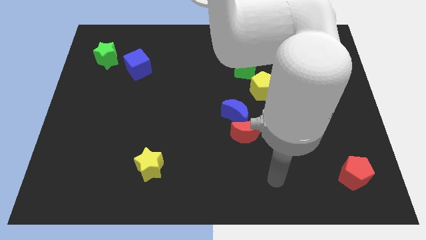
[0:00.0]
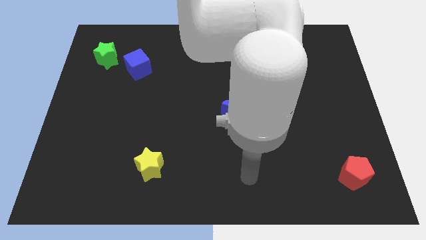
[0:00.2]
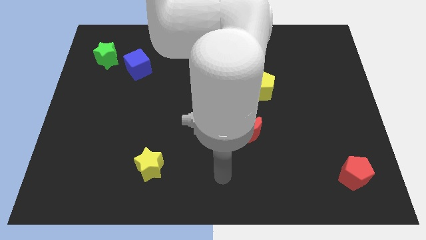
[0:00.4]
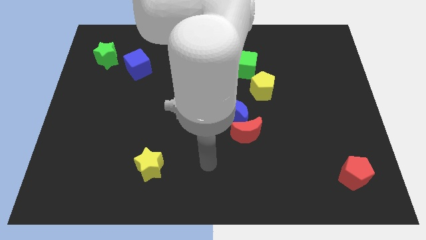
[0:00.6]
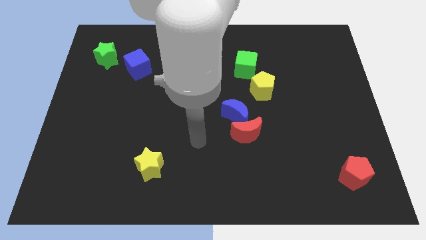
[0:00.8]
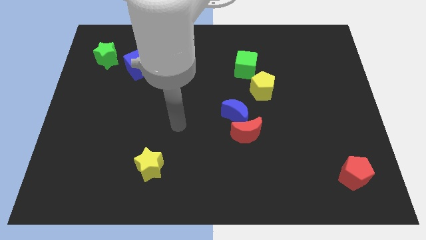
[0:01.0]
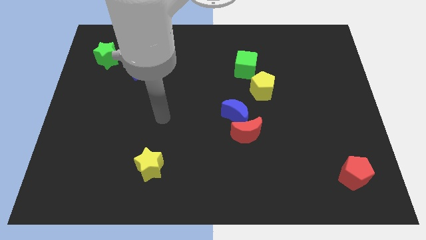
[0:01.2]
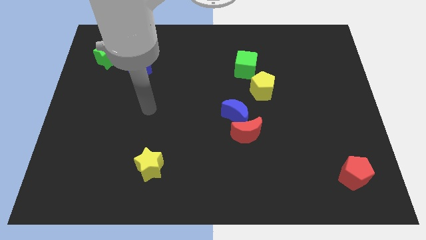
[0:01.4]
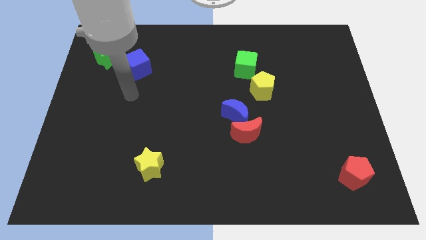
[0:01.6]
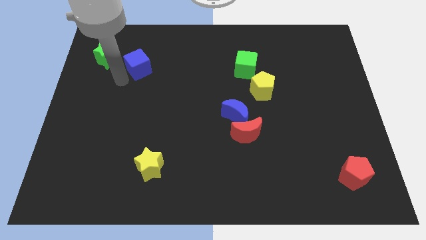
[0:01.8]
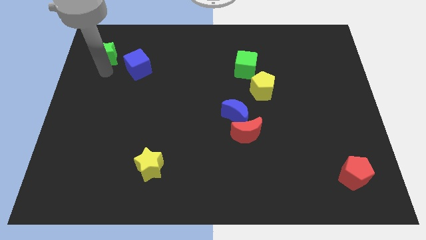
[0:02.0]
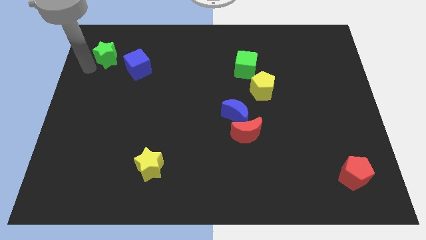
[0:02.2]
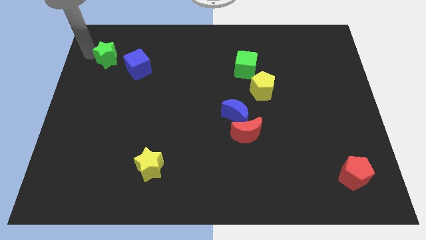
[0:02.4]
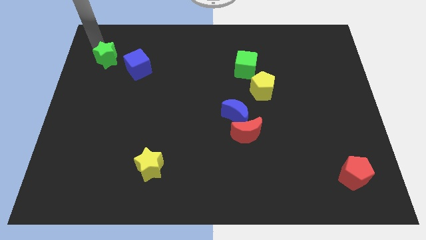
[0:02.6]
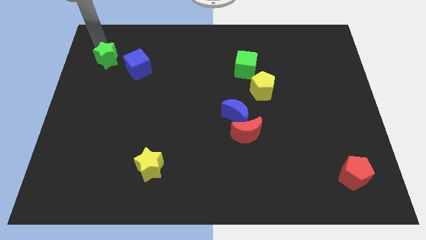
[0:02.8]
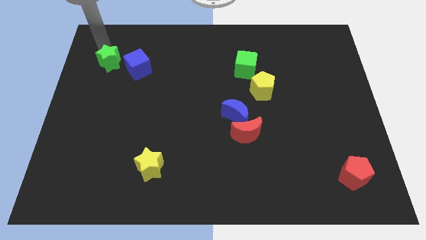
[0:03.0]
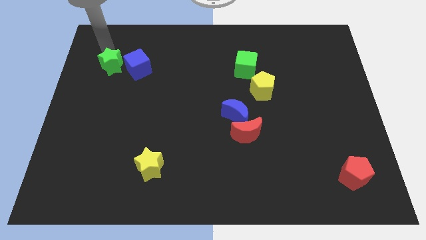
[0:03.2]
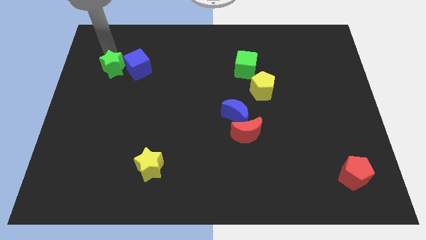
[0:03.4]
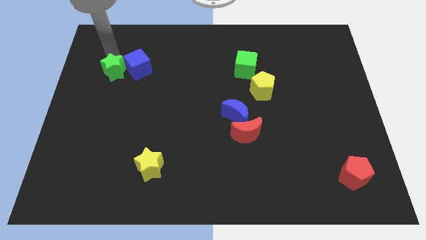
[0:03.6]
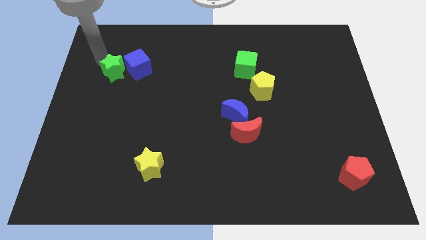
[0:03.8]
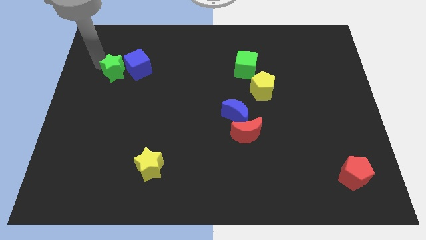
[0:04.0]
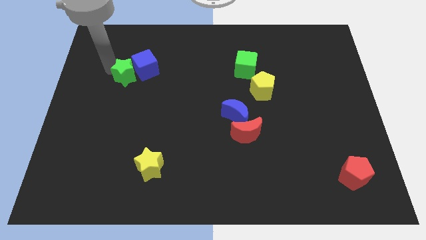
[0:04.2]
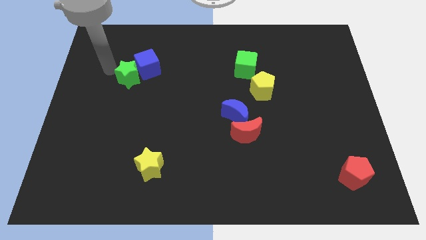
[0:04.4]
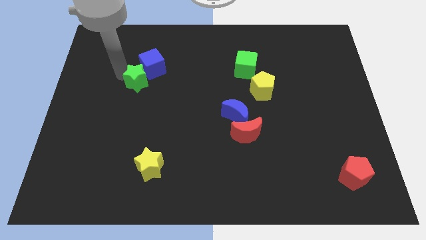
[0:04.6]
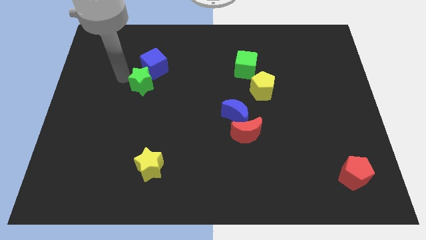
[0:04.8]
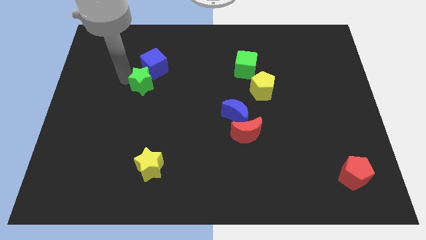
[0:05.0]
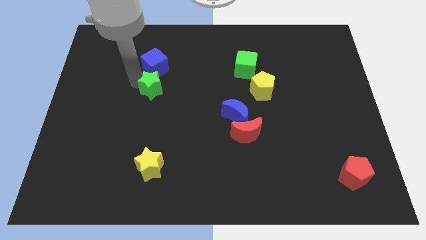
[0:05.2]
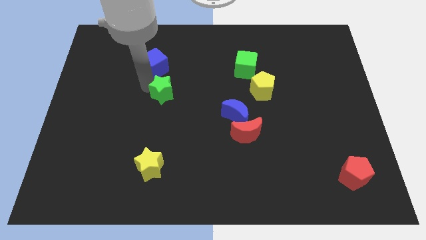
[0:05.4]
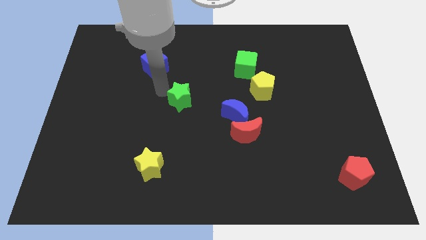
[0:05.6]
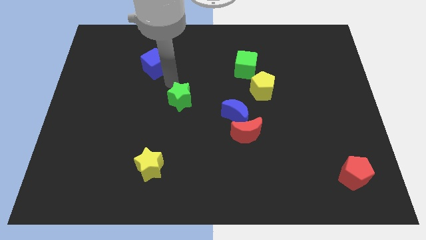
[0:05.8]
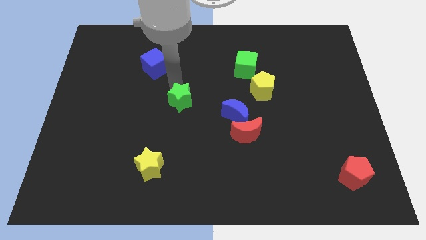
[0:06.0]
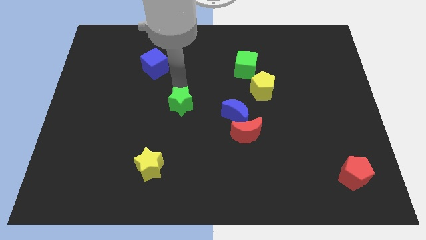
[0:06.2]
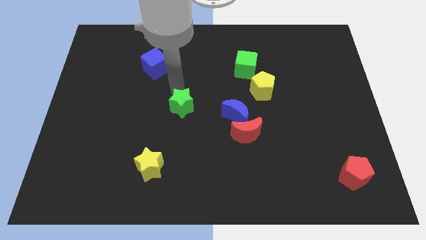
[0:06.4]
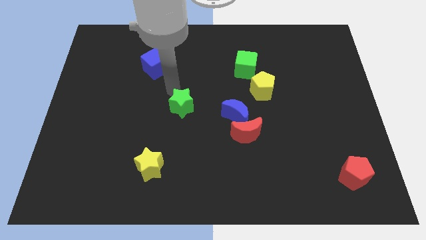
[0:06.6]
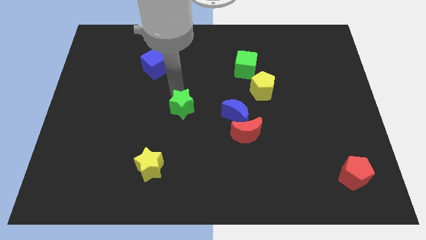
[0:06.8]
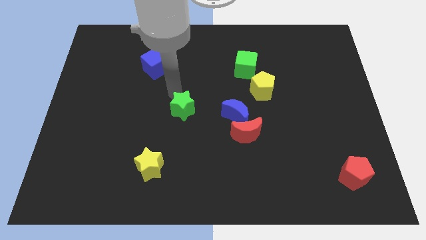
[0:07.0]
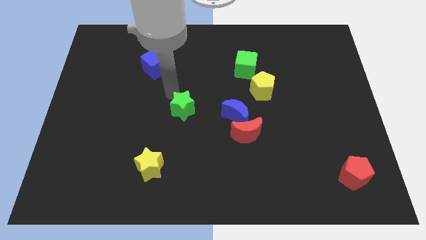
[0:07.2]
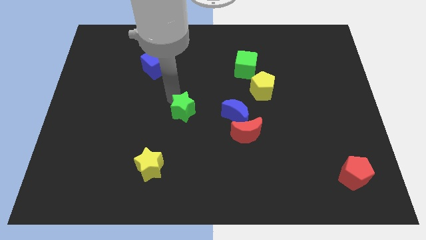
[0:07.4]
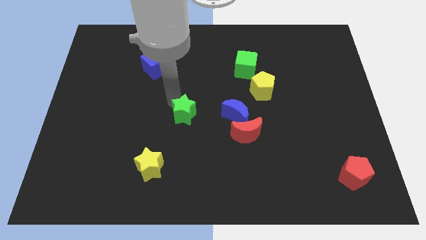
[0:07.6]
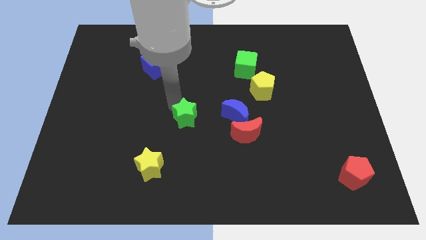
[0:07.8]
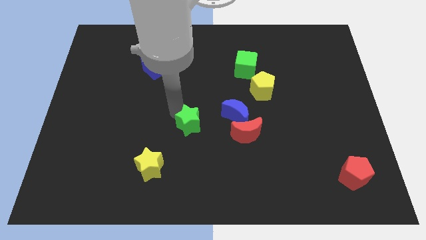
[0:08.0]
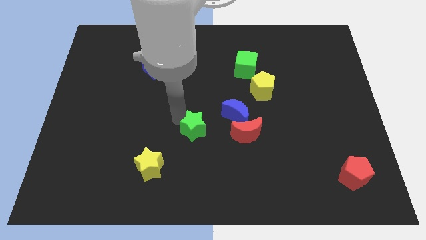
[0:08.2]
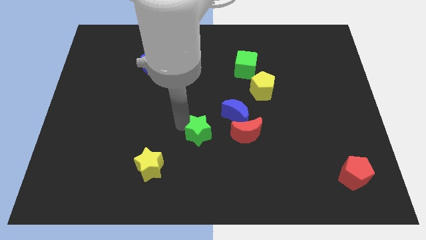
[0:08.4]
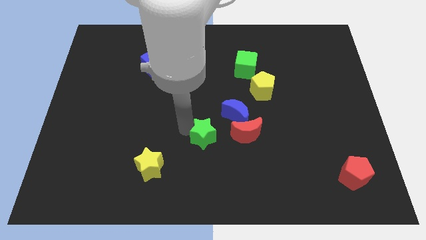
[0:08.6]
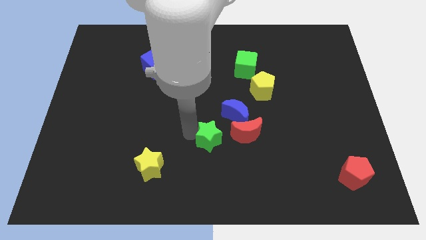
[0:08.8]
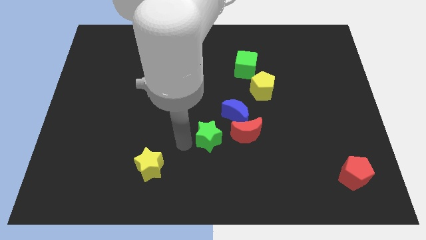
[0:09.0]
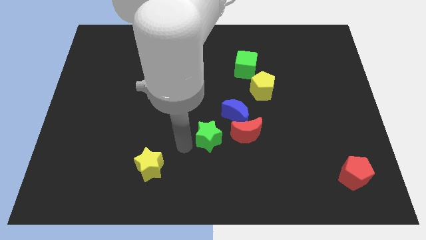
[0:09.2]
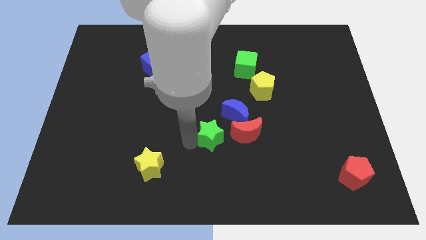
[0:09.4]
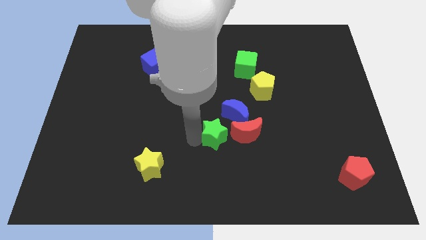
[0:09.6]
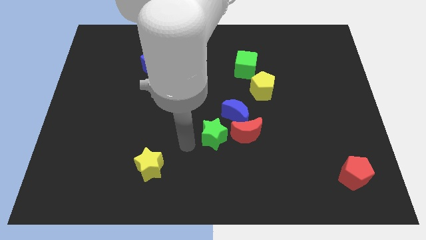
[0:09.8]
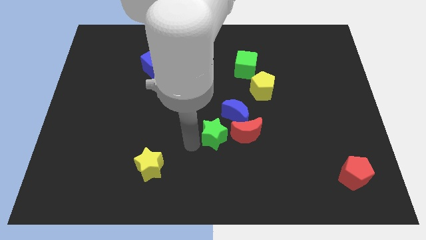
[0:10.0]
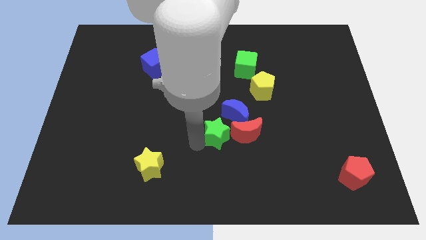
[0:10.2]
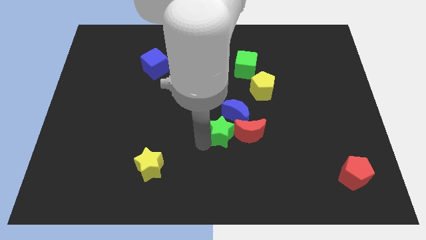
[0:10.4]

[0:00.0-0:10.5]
put the green star towards the red moon

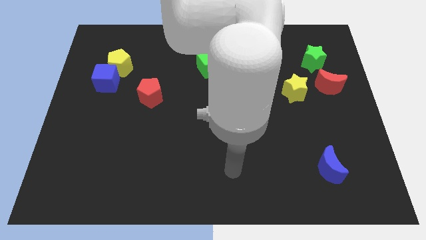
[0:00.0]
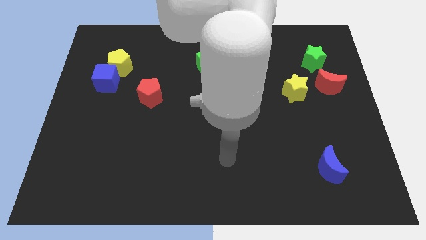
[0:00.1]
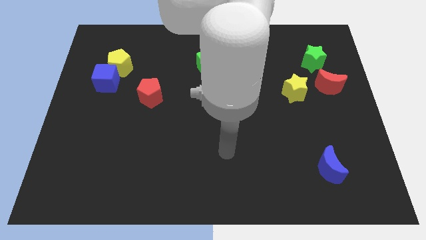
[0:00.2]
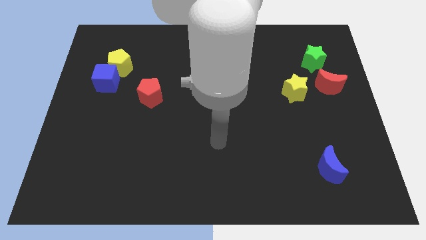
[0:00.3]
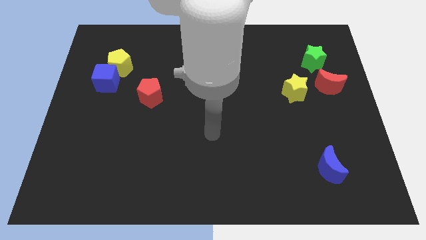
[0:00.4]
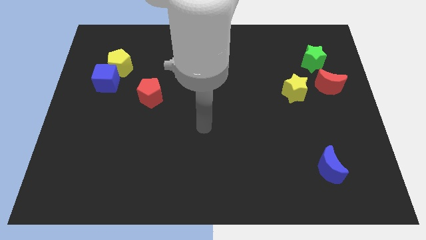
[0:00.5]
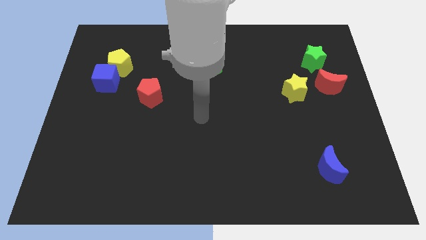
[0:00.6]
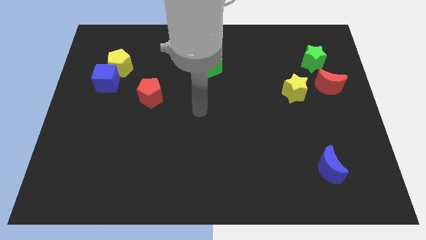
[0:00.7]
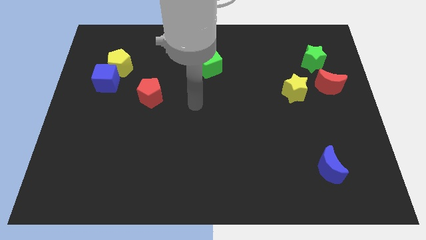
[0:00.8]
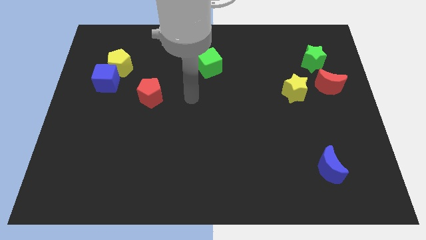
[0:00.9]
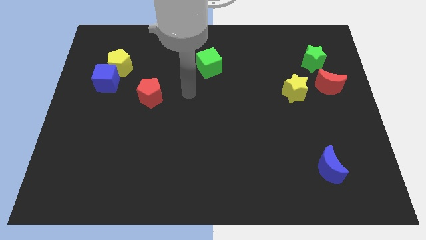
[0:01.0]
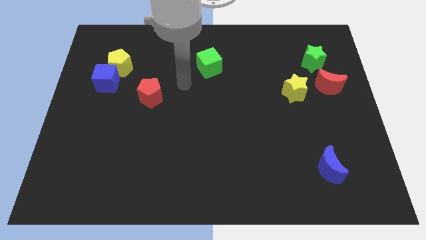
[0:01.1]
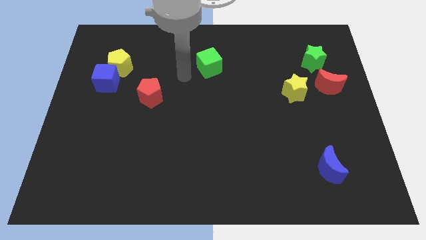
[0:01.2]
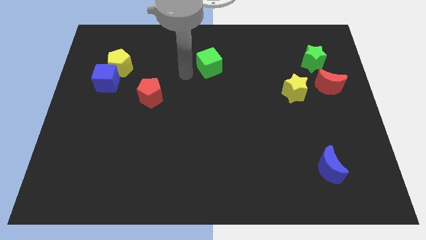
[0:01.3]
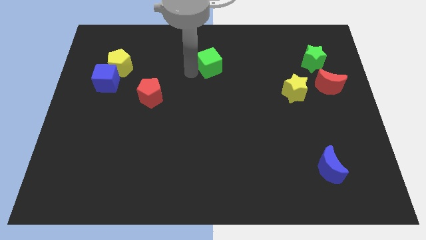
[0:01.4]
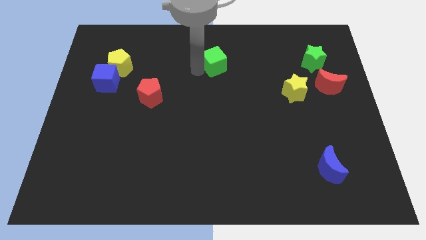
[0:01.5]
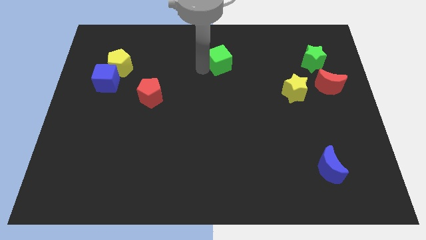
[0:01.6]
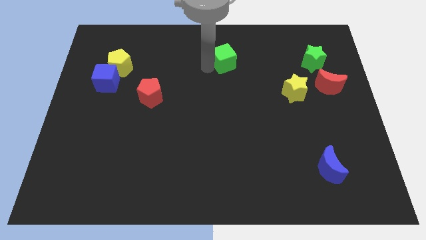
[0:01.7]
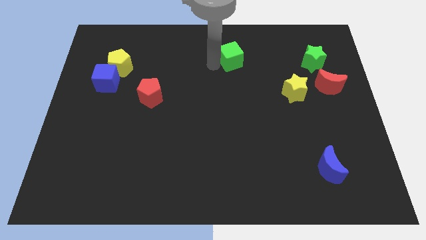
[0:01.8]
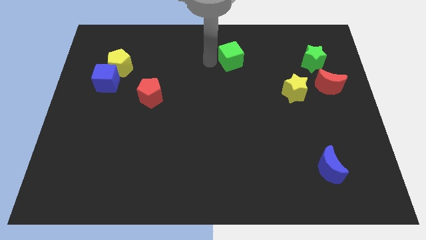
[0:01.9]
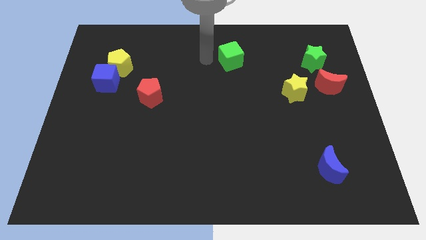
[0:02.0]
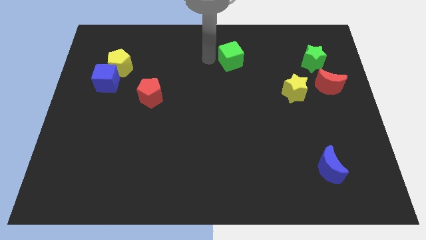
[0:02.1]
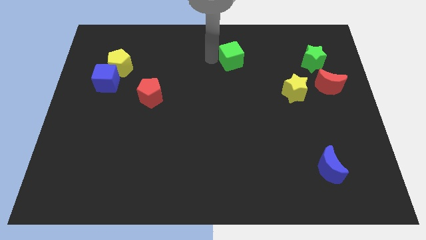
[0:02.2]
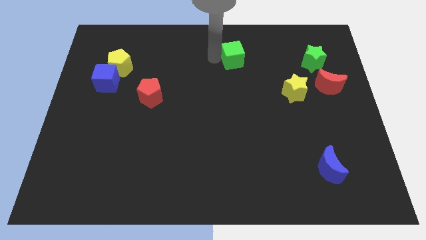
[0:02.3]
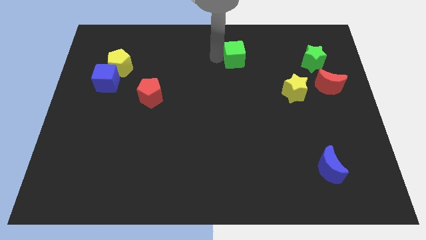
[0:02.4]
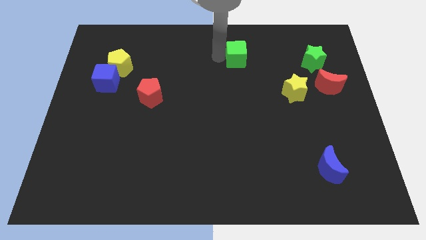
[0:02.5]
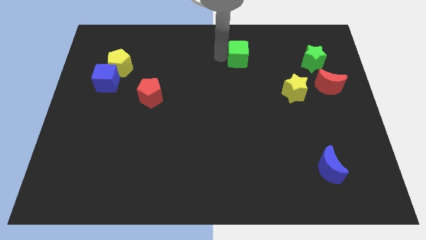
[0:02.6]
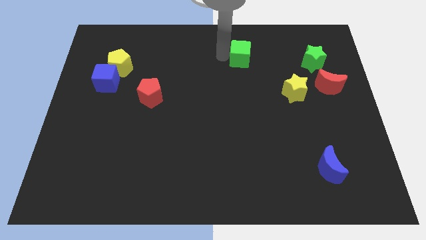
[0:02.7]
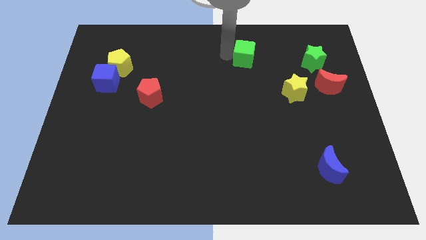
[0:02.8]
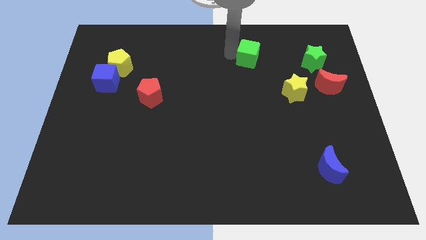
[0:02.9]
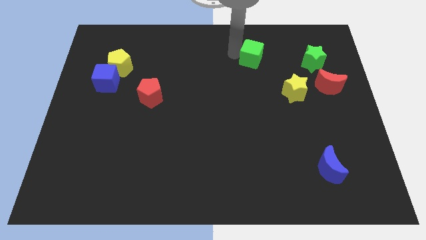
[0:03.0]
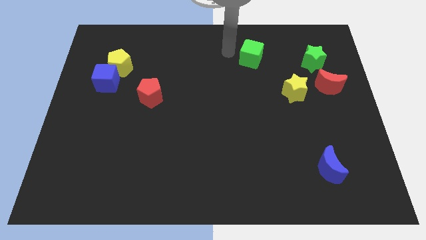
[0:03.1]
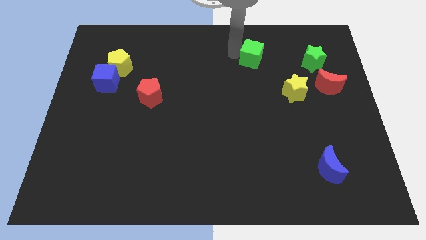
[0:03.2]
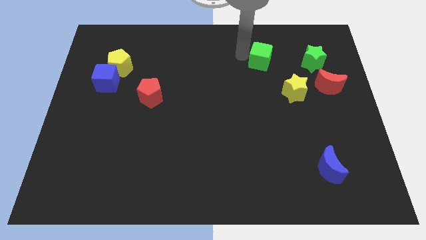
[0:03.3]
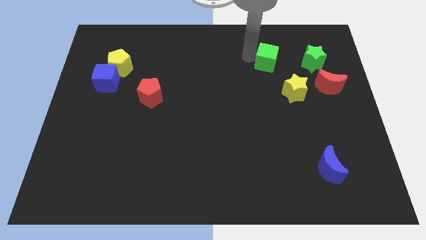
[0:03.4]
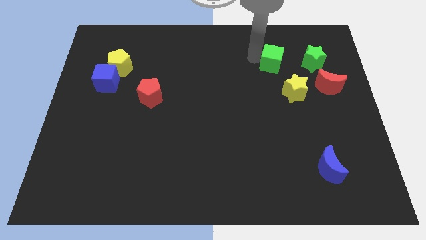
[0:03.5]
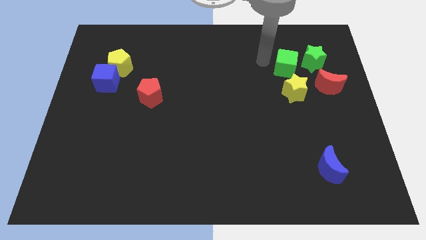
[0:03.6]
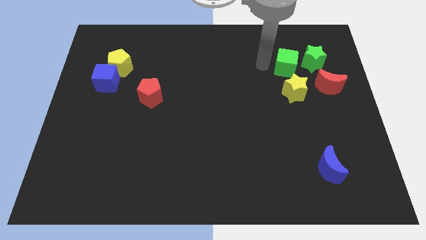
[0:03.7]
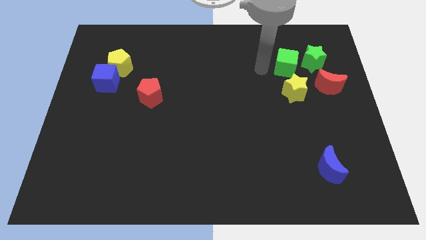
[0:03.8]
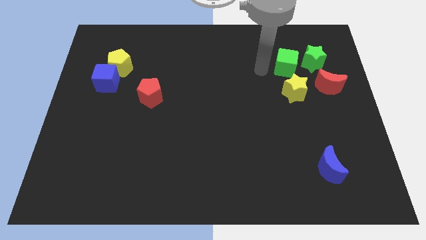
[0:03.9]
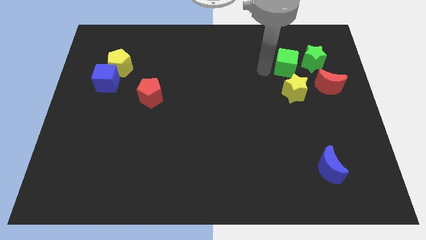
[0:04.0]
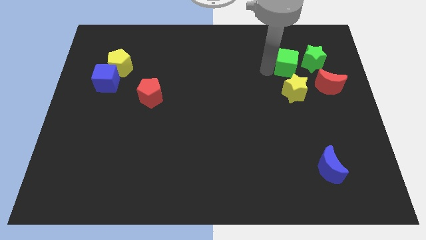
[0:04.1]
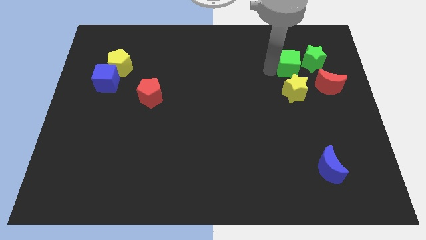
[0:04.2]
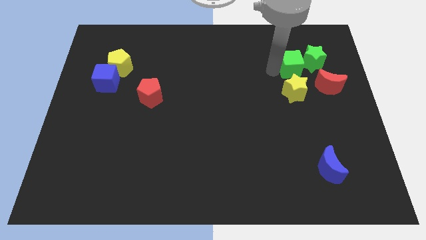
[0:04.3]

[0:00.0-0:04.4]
slide the green cube close to the green star
